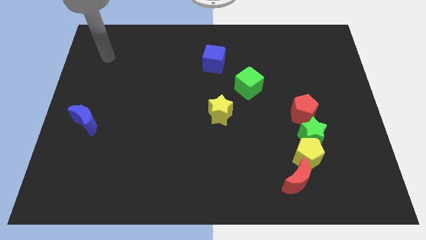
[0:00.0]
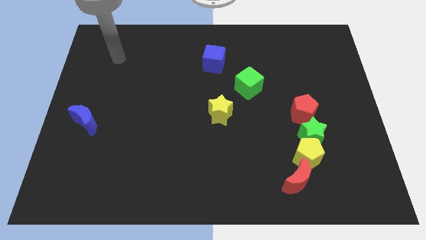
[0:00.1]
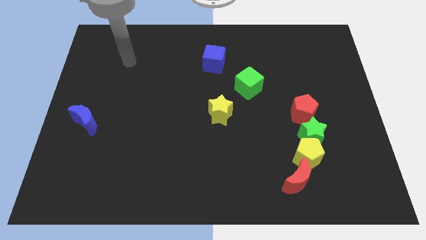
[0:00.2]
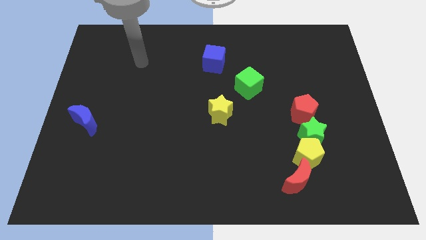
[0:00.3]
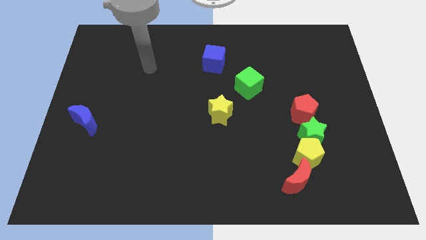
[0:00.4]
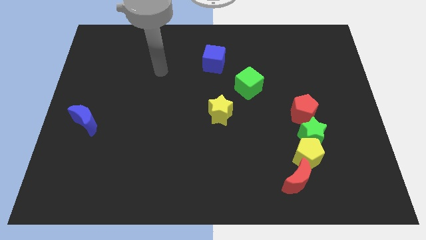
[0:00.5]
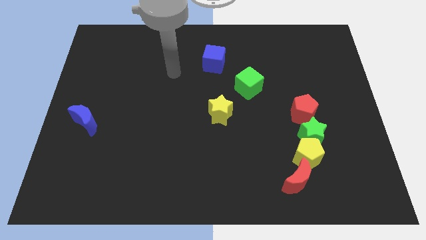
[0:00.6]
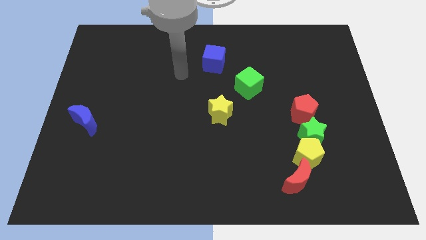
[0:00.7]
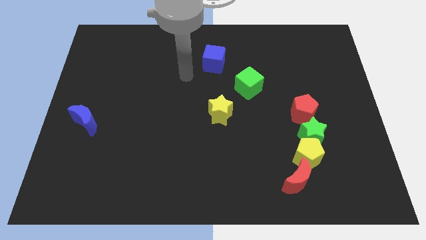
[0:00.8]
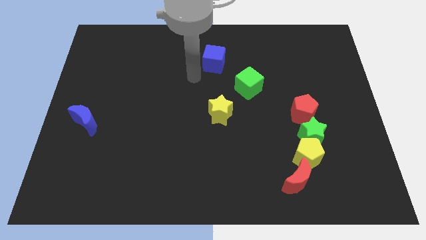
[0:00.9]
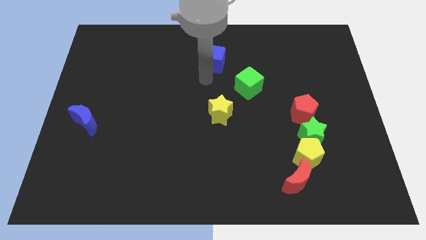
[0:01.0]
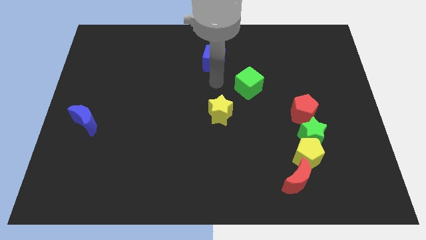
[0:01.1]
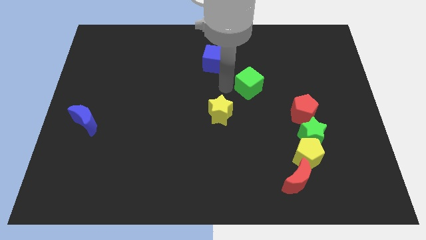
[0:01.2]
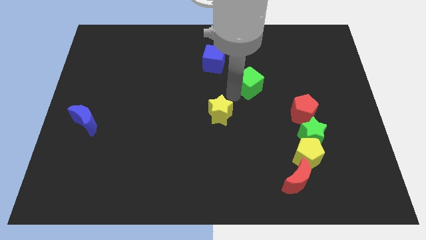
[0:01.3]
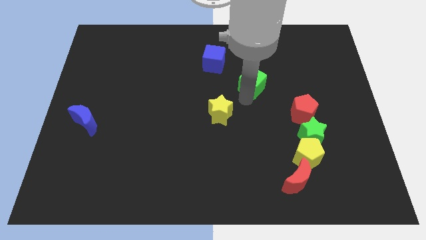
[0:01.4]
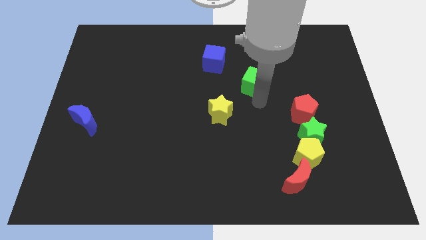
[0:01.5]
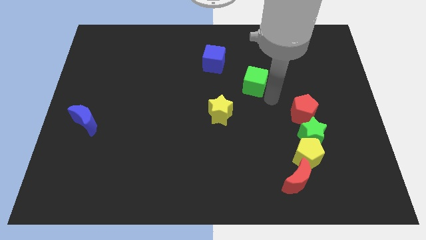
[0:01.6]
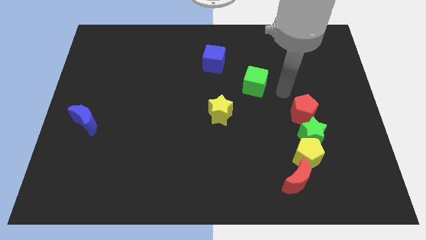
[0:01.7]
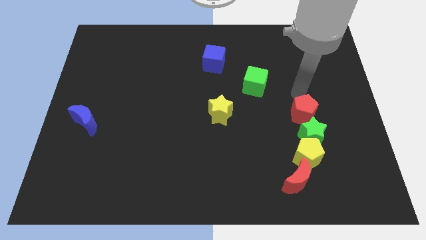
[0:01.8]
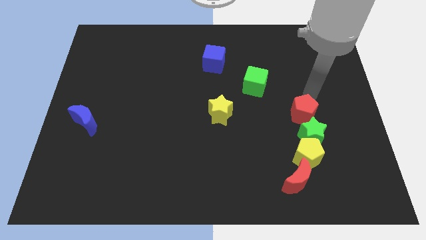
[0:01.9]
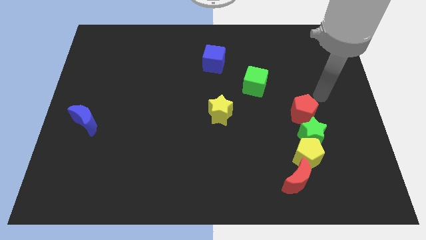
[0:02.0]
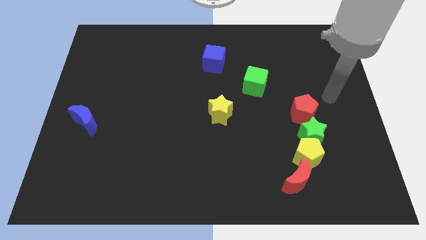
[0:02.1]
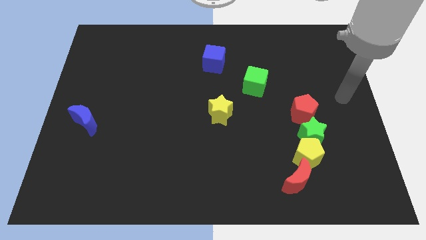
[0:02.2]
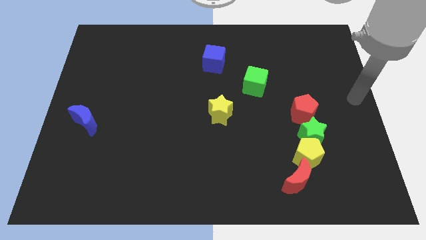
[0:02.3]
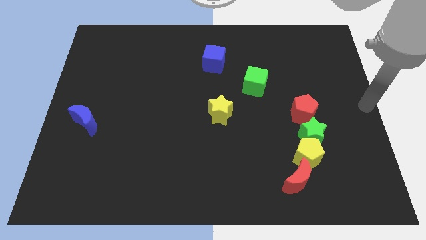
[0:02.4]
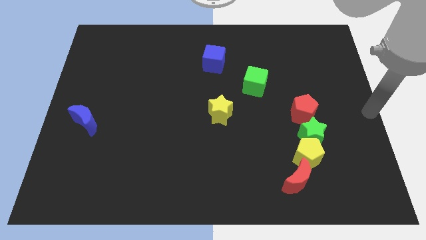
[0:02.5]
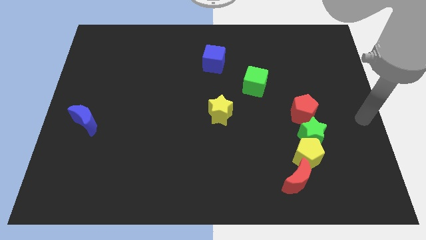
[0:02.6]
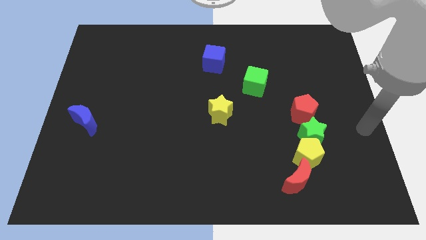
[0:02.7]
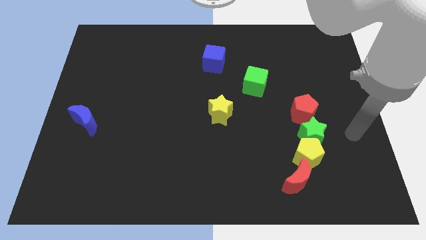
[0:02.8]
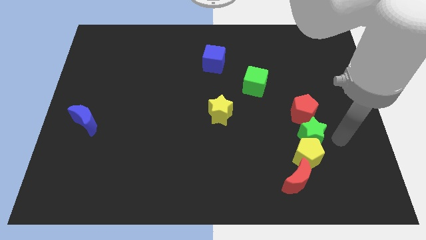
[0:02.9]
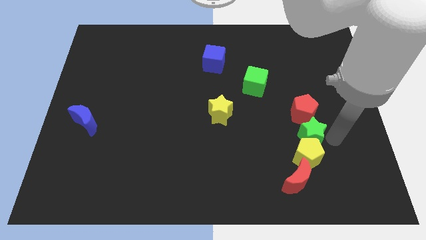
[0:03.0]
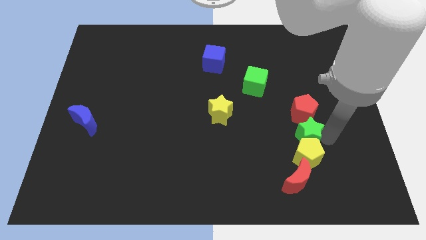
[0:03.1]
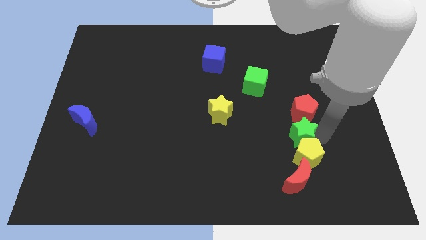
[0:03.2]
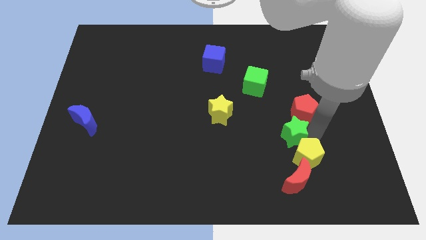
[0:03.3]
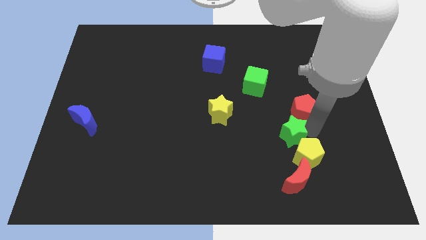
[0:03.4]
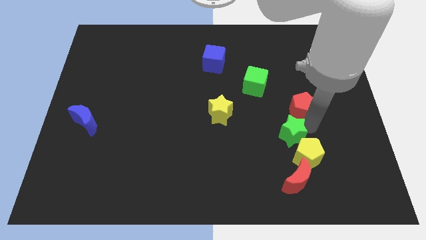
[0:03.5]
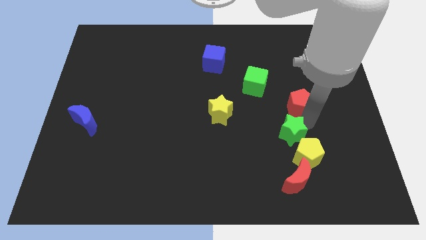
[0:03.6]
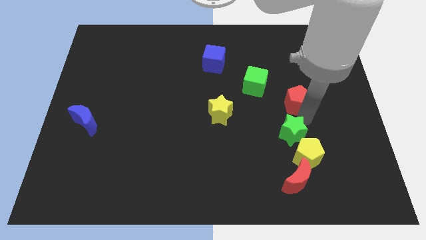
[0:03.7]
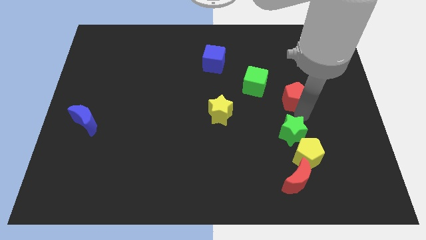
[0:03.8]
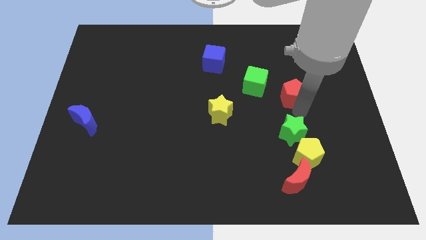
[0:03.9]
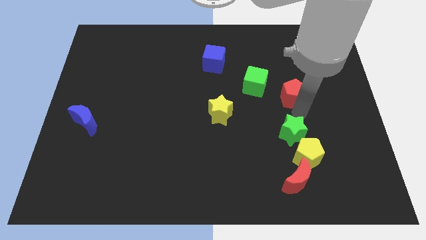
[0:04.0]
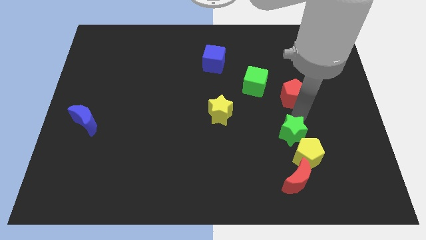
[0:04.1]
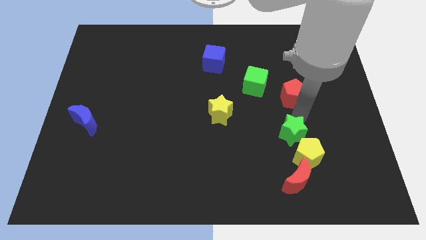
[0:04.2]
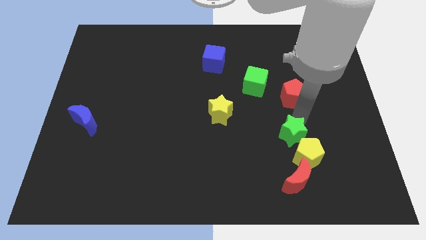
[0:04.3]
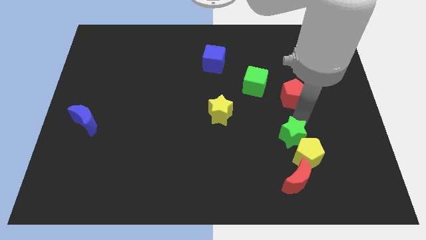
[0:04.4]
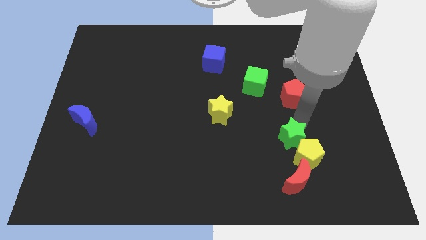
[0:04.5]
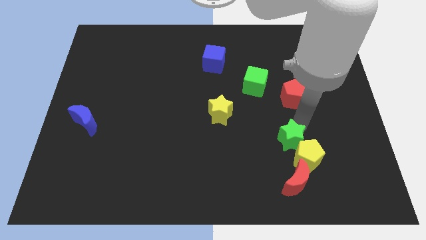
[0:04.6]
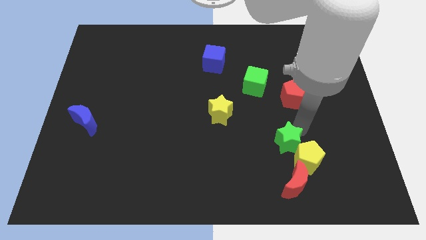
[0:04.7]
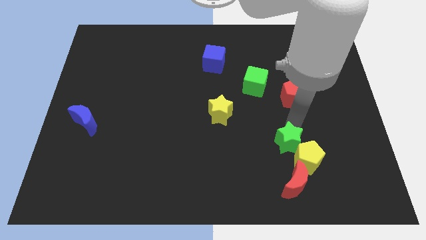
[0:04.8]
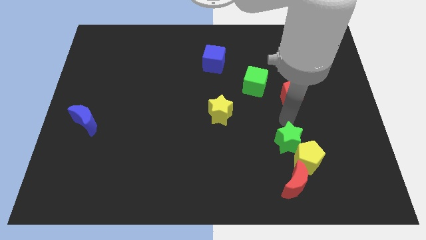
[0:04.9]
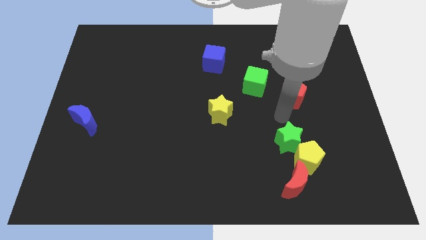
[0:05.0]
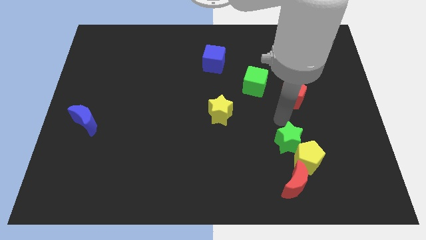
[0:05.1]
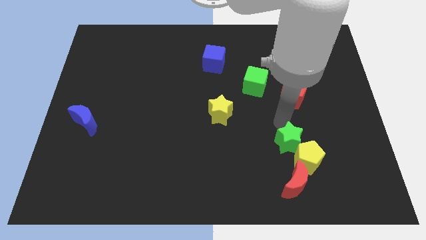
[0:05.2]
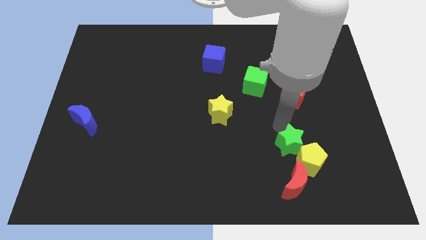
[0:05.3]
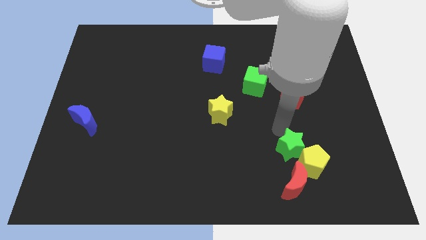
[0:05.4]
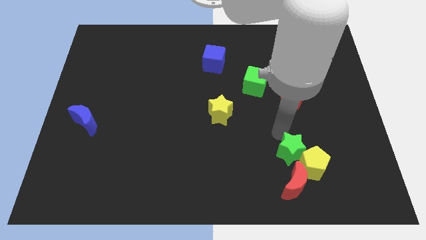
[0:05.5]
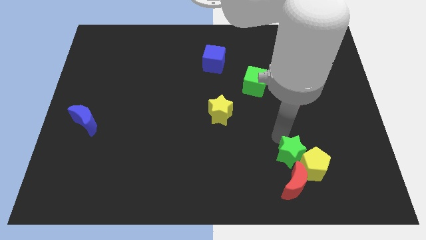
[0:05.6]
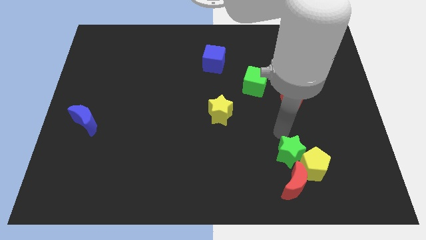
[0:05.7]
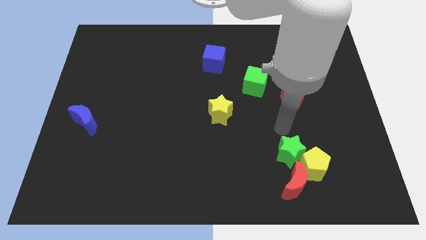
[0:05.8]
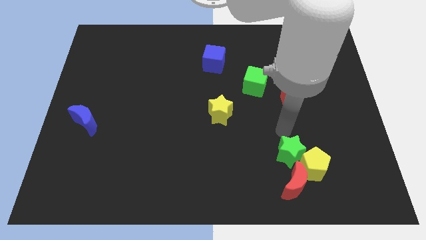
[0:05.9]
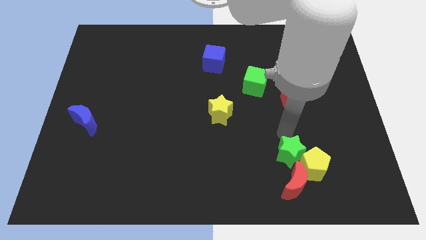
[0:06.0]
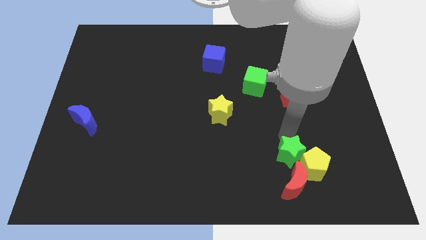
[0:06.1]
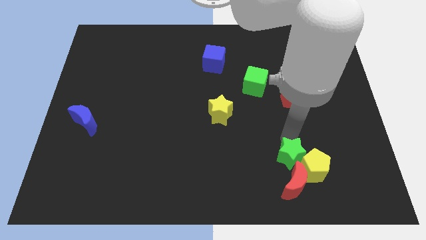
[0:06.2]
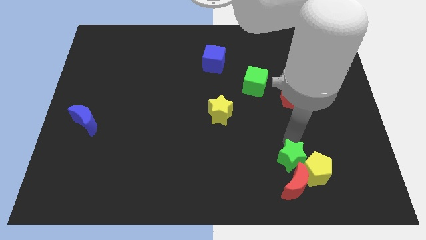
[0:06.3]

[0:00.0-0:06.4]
move the green star close to the red moon
